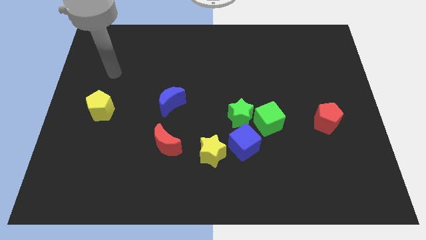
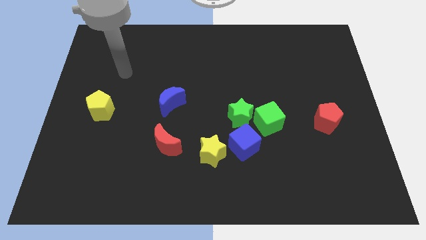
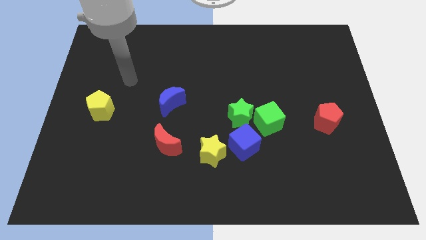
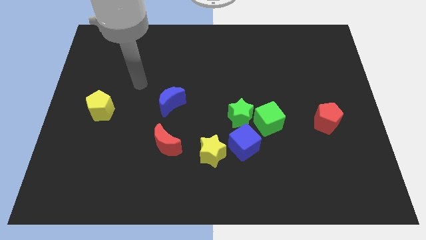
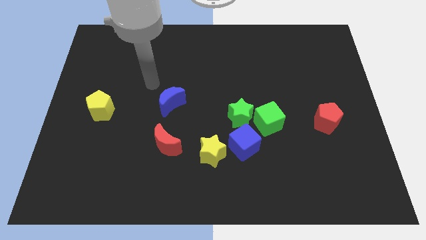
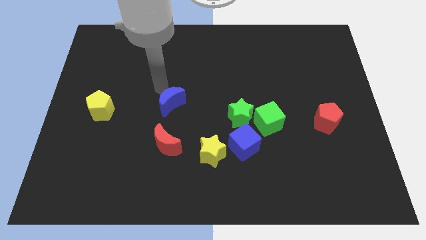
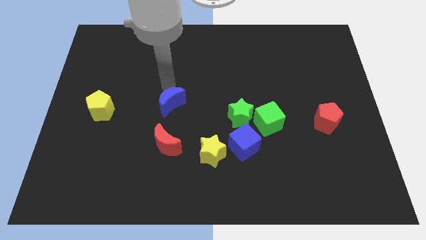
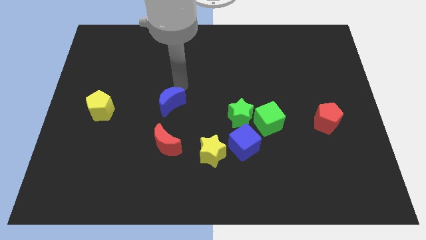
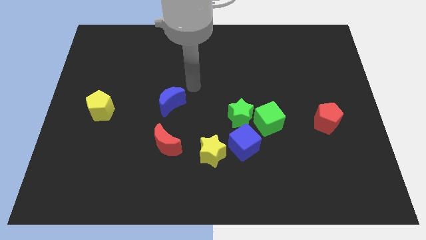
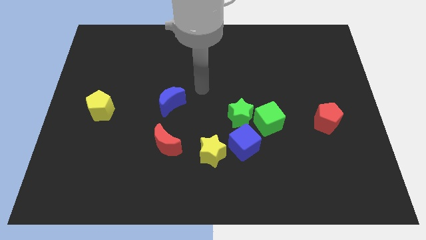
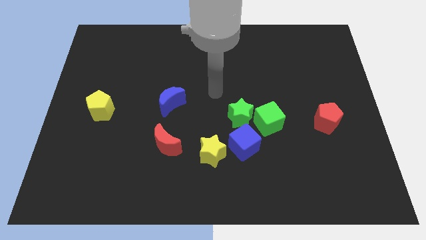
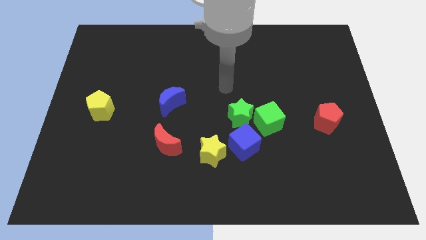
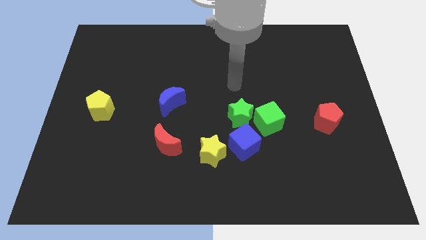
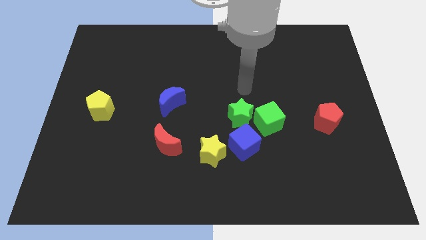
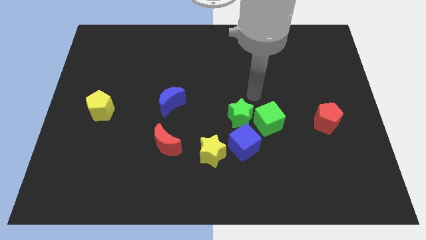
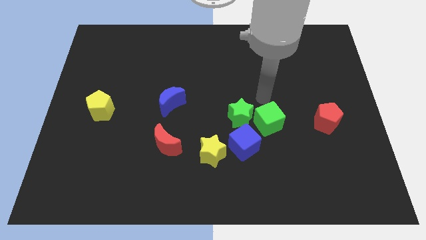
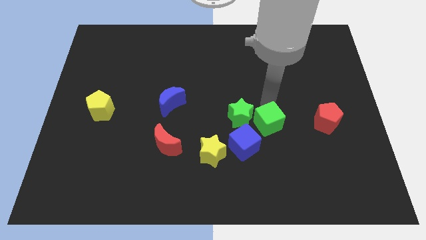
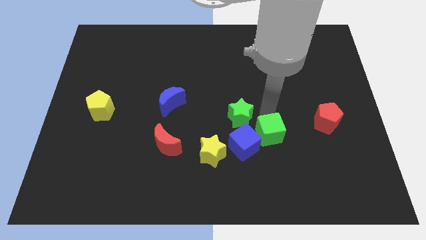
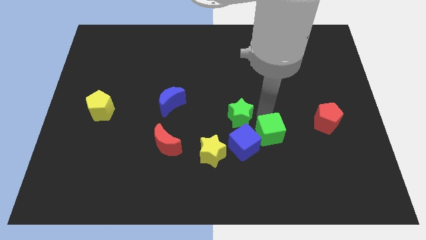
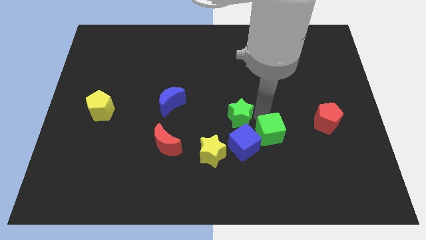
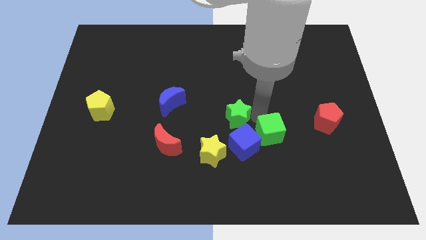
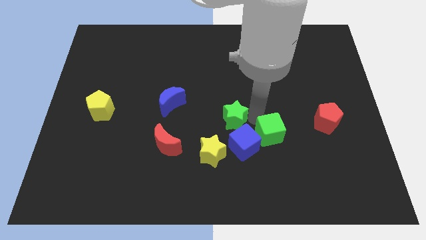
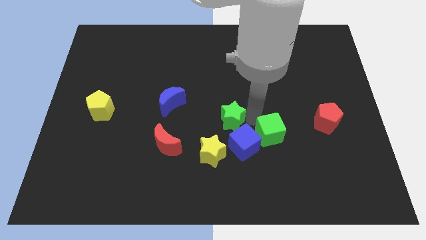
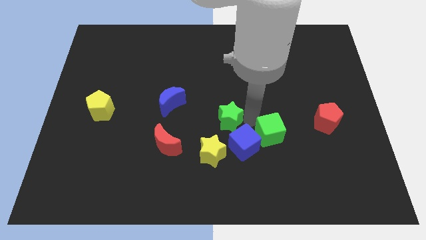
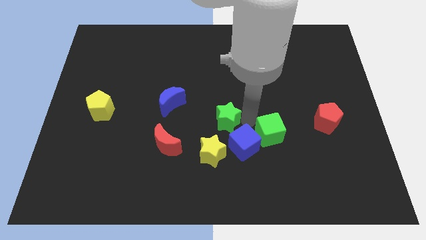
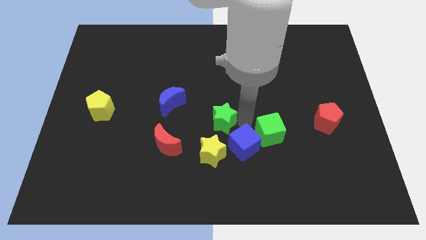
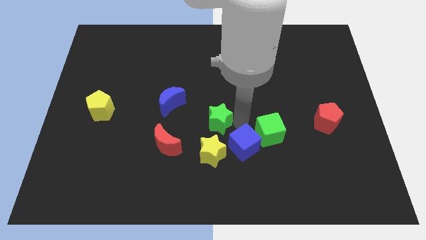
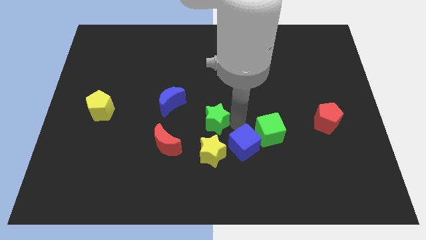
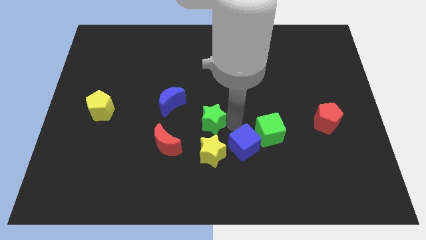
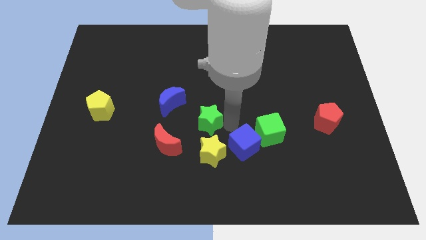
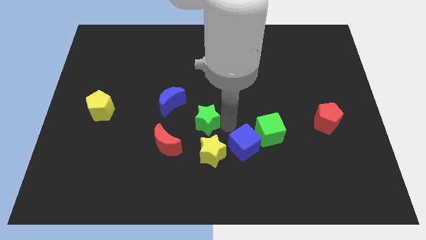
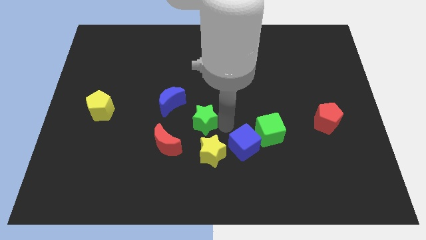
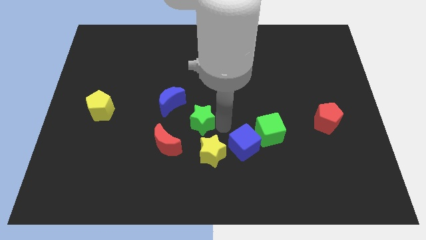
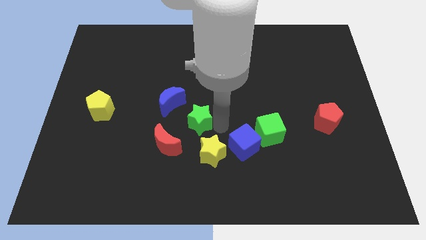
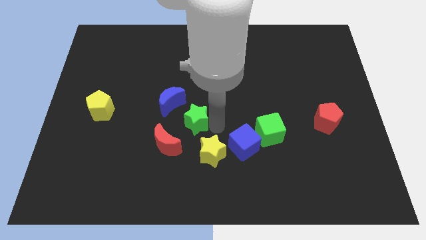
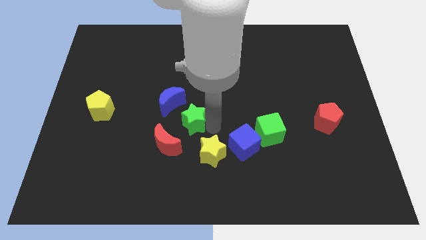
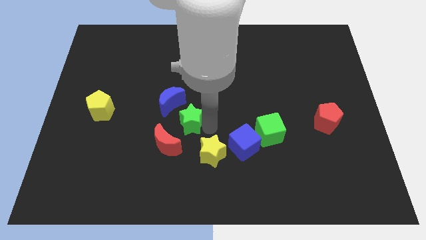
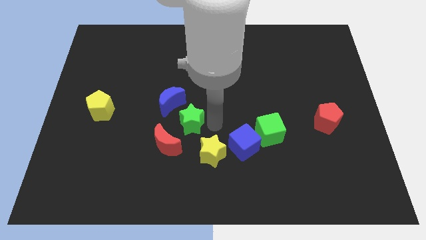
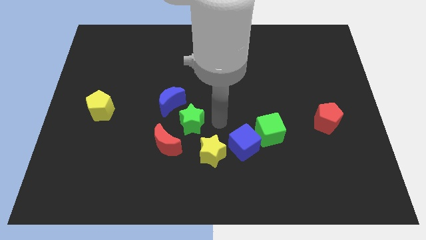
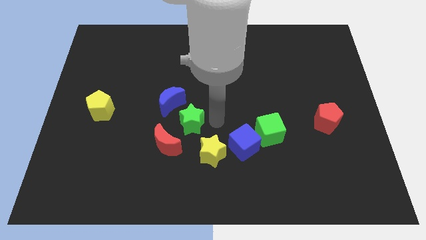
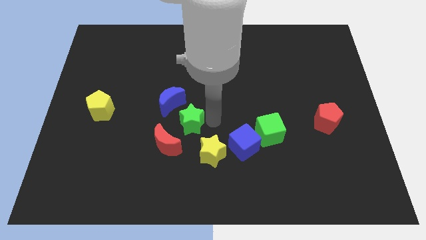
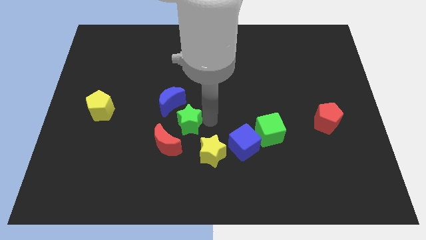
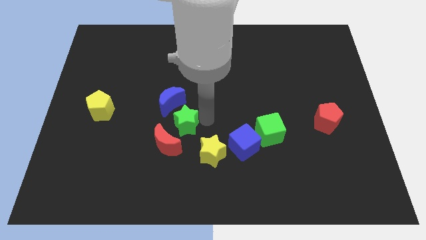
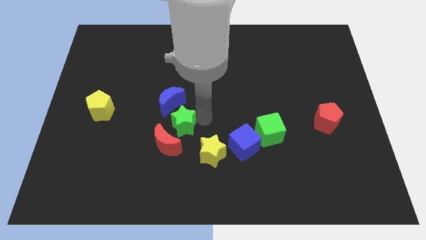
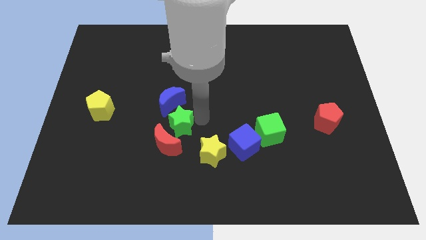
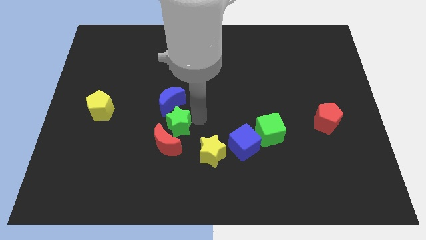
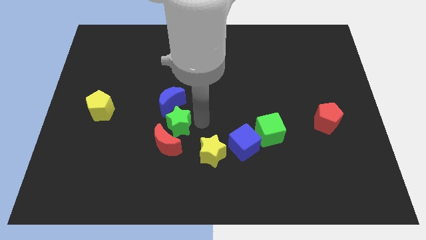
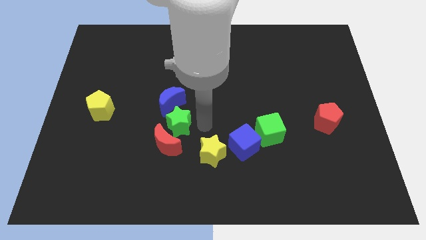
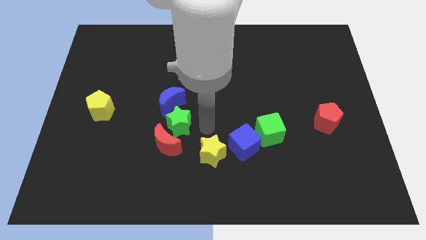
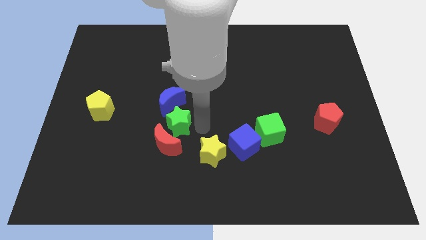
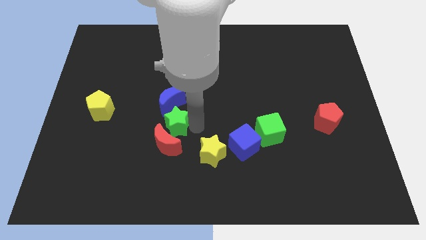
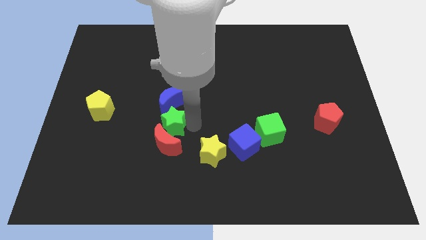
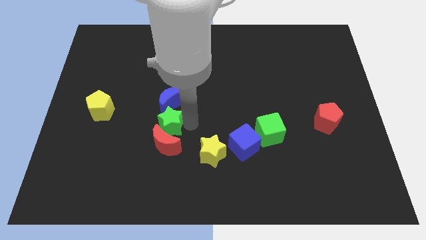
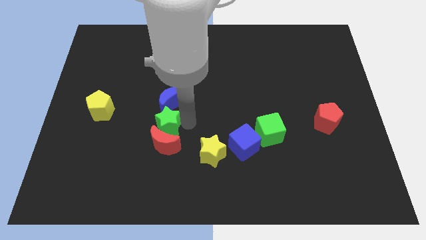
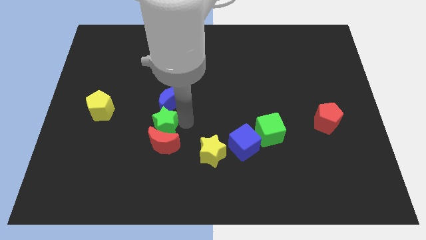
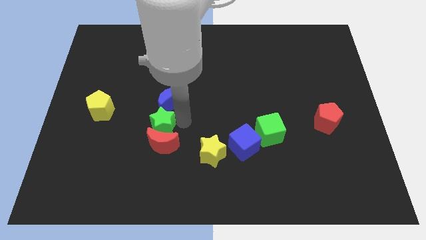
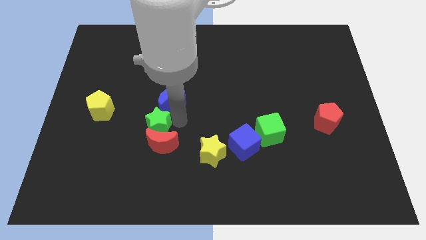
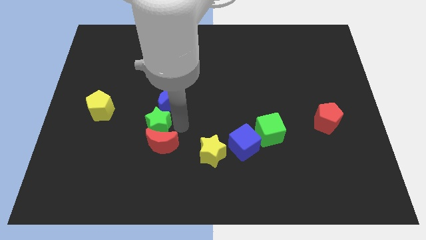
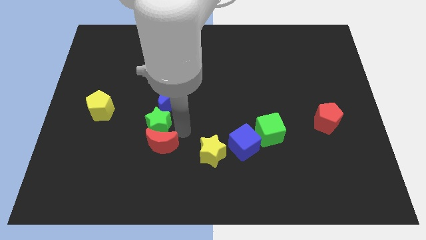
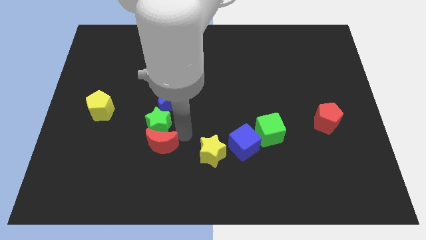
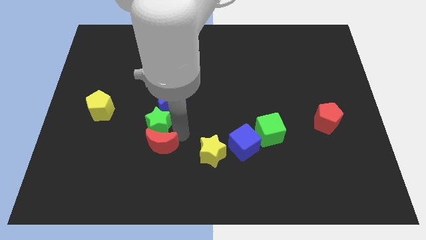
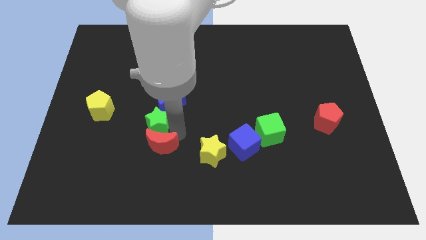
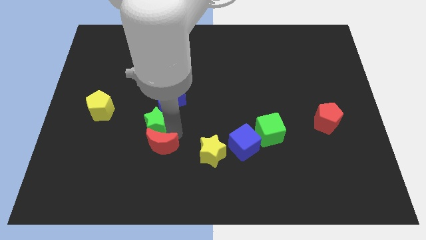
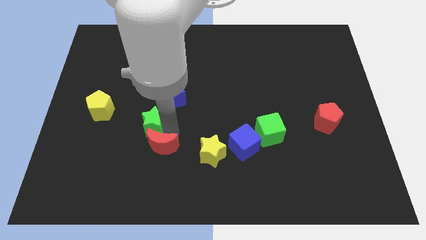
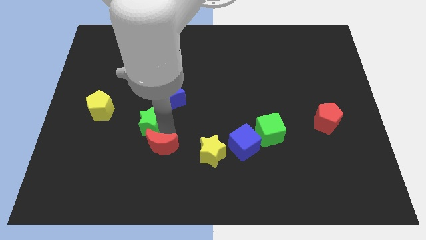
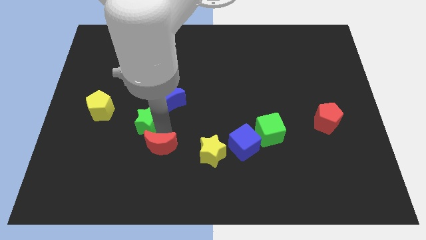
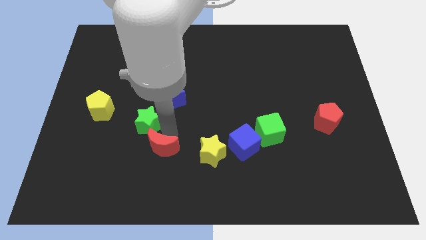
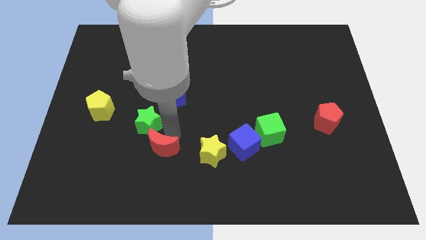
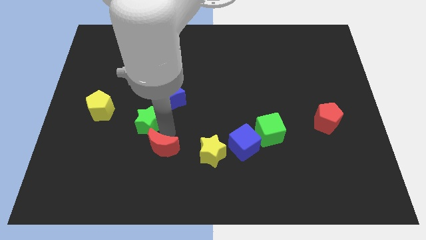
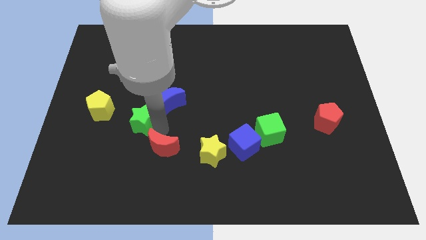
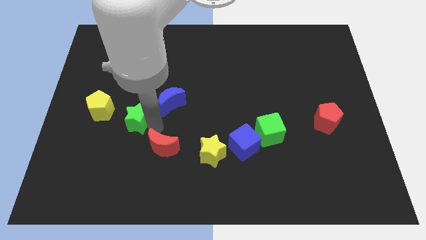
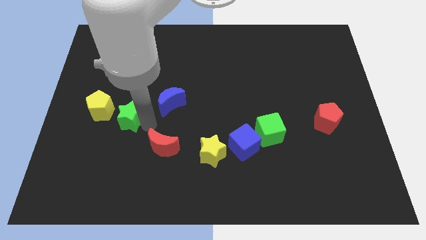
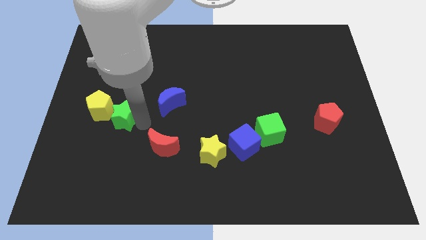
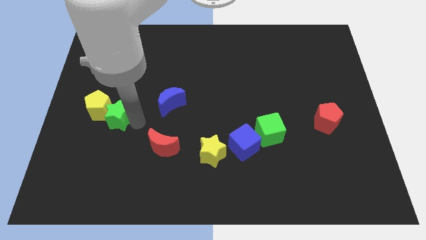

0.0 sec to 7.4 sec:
slide the green star towards the yellow pentagon
